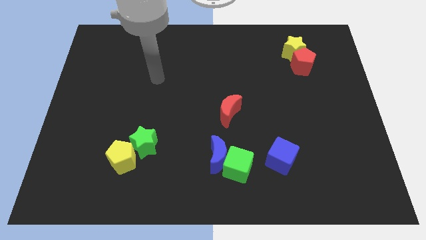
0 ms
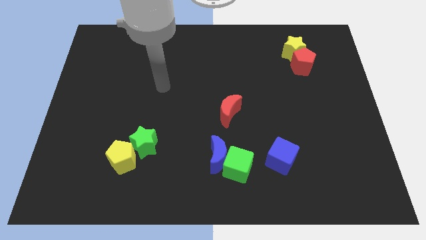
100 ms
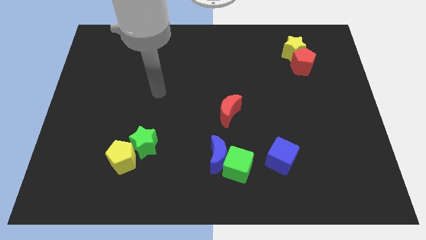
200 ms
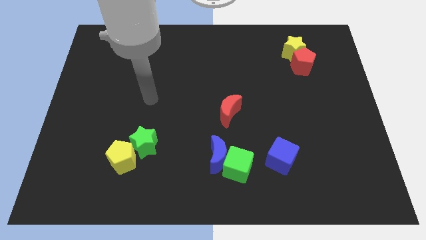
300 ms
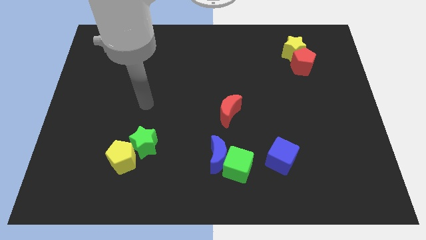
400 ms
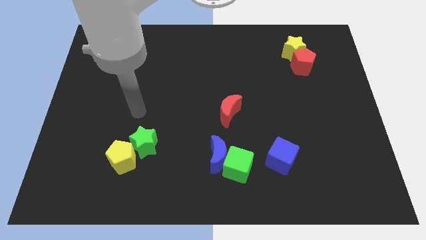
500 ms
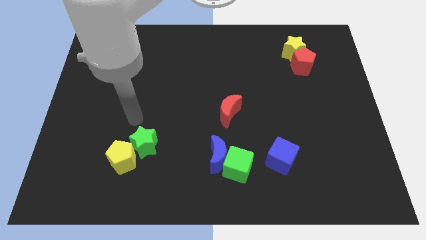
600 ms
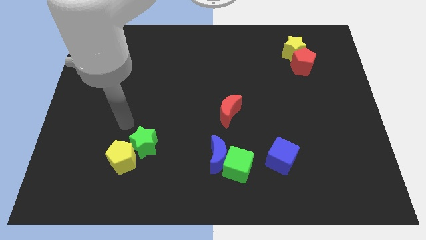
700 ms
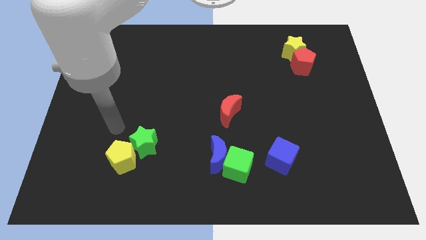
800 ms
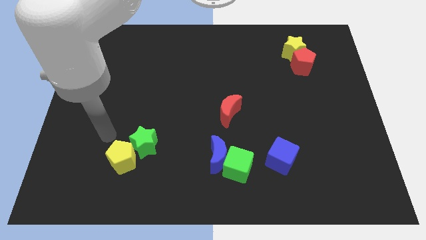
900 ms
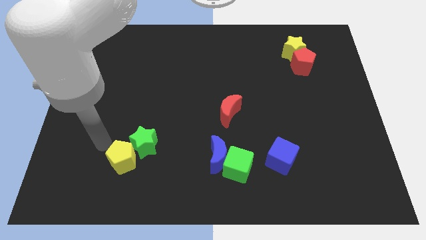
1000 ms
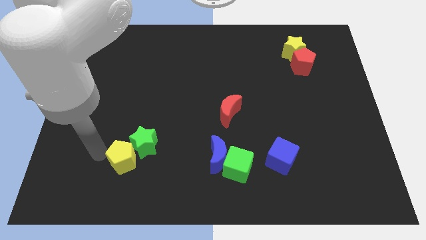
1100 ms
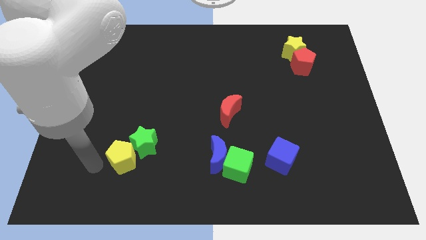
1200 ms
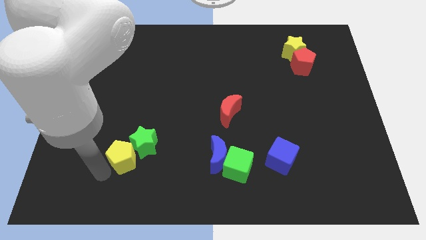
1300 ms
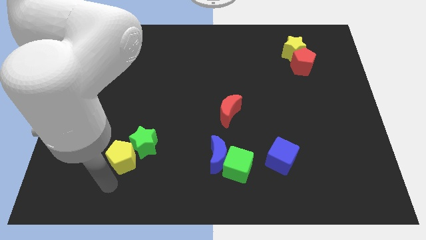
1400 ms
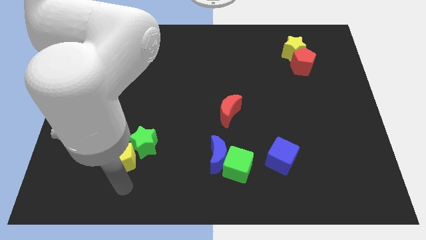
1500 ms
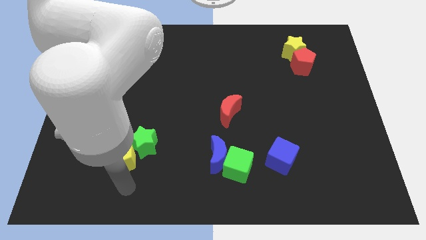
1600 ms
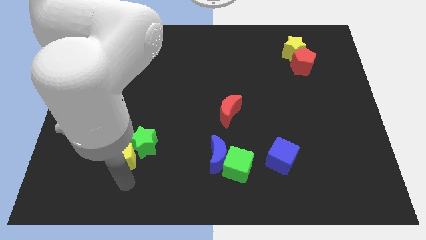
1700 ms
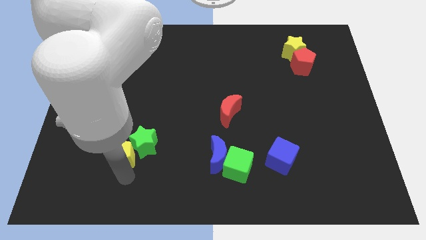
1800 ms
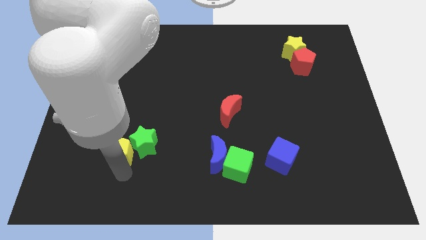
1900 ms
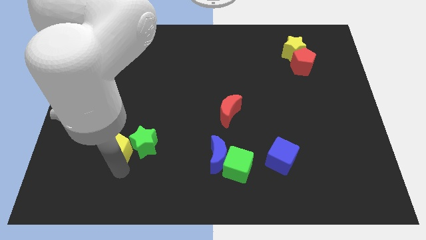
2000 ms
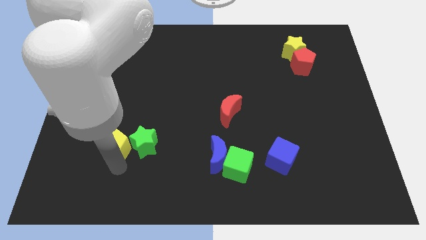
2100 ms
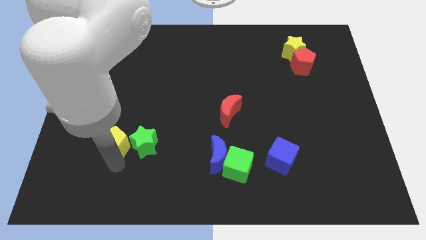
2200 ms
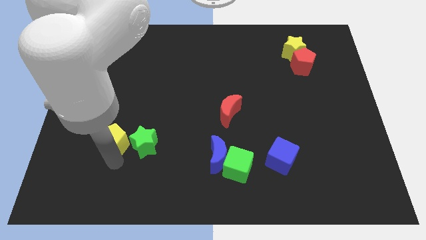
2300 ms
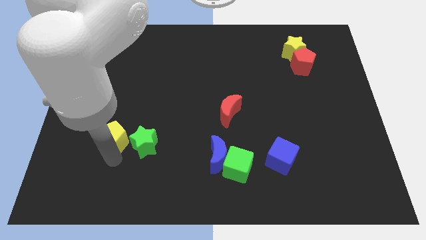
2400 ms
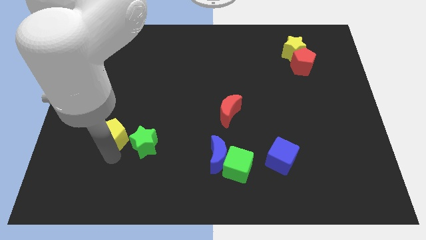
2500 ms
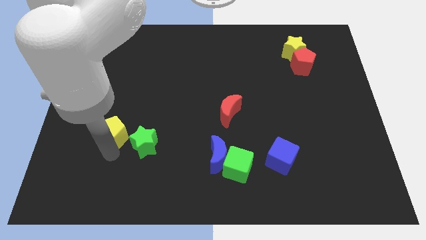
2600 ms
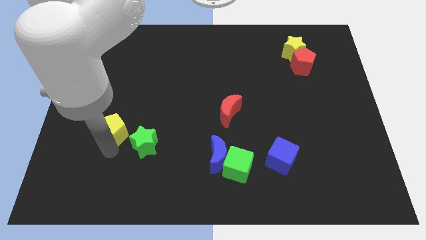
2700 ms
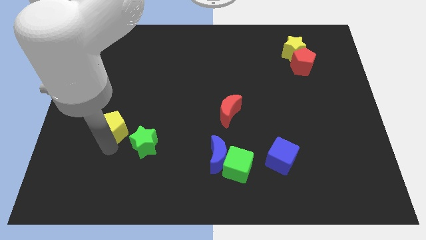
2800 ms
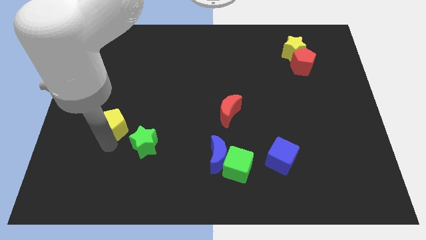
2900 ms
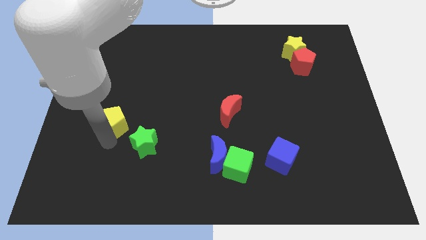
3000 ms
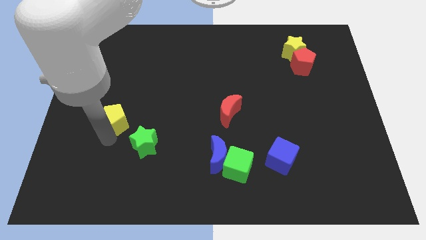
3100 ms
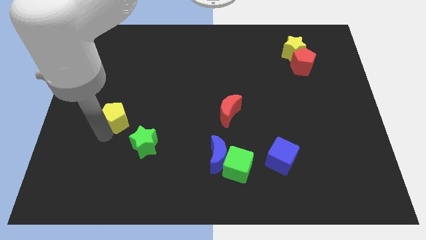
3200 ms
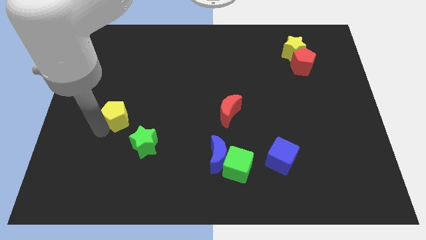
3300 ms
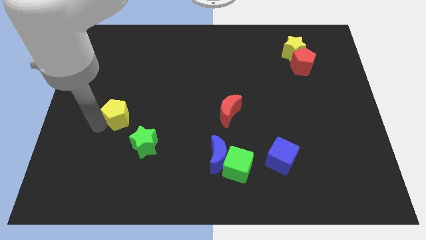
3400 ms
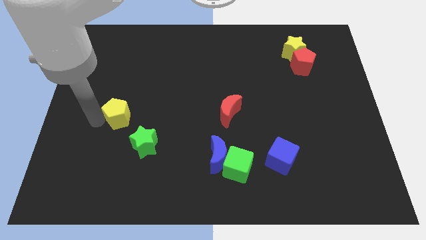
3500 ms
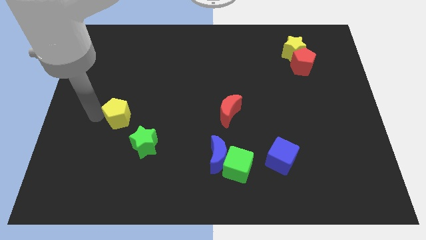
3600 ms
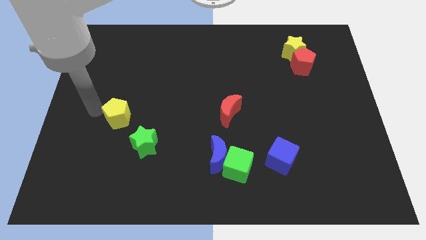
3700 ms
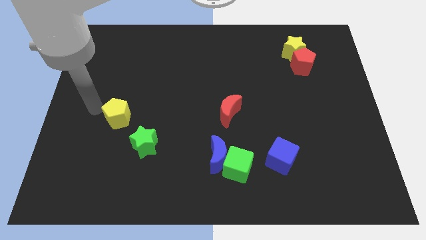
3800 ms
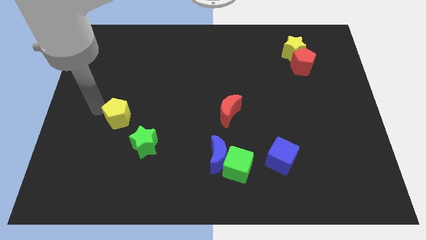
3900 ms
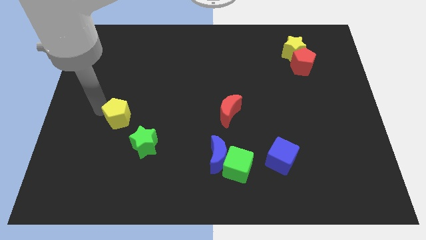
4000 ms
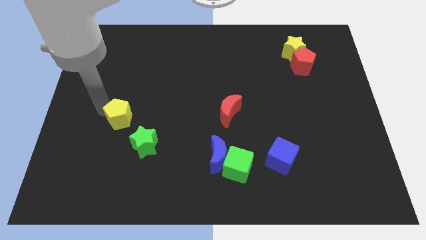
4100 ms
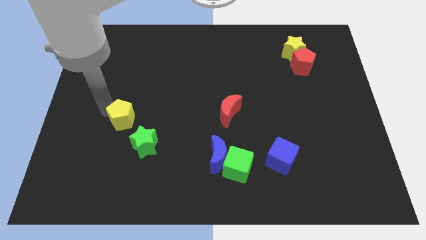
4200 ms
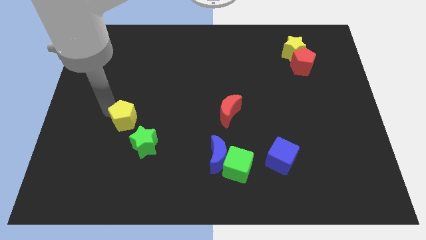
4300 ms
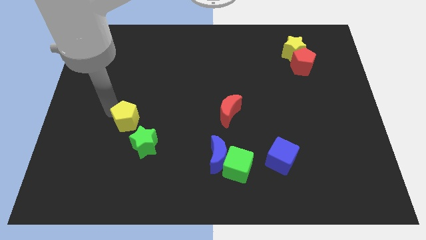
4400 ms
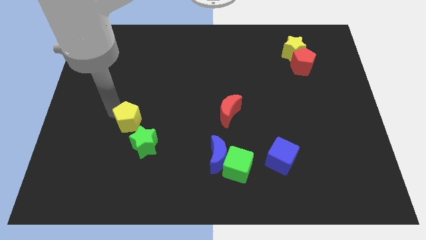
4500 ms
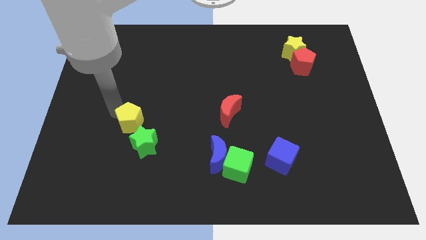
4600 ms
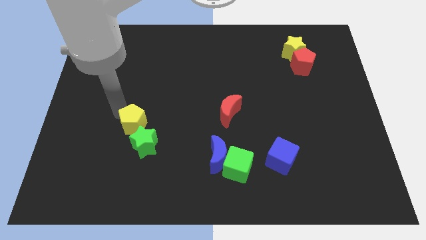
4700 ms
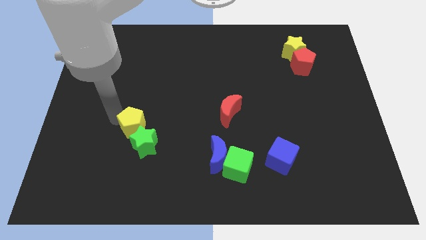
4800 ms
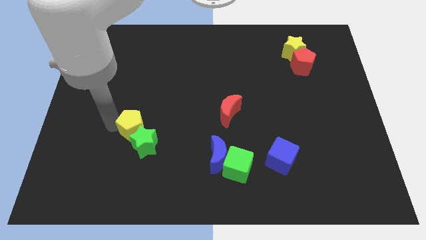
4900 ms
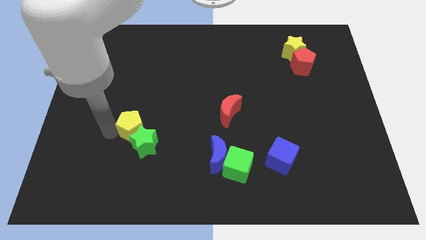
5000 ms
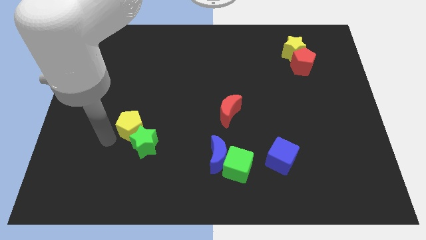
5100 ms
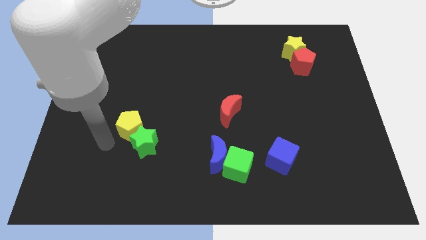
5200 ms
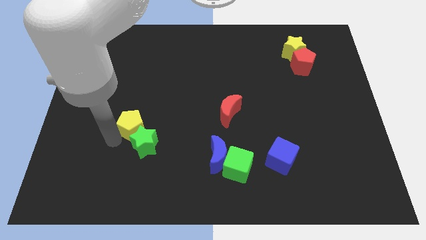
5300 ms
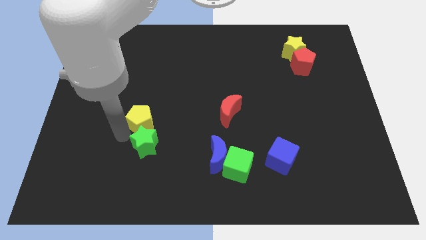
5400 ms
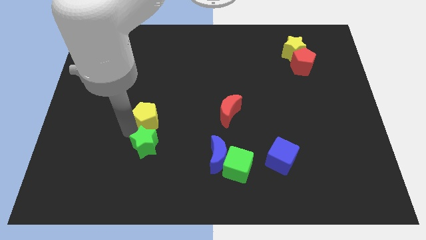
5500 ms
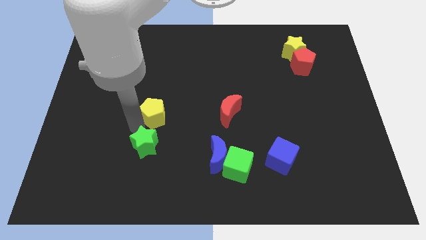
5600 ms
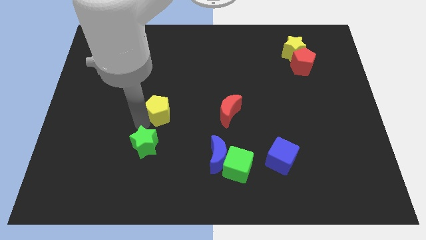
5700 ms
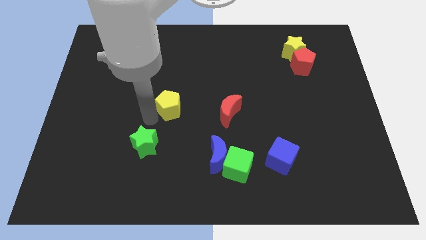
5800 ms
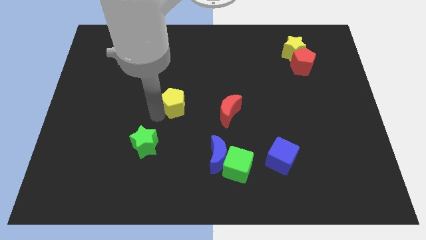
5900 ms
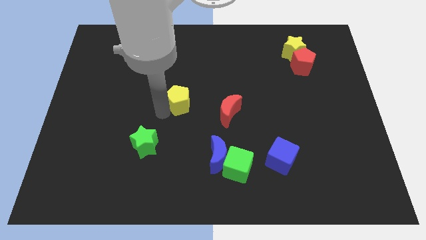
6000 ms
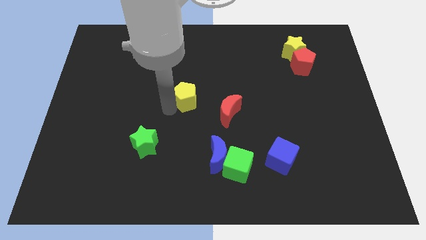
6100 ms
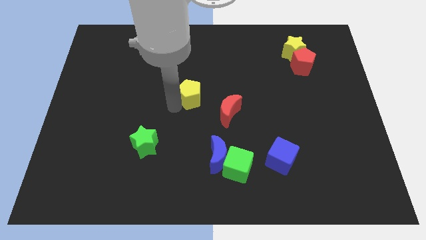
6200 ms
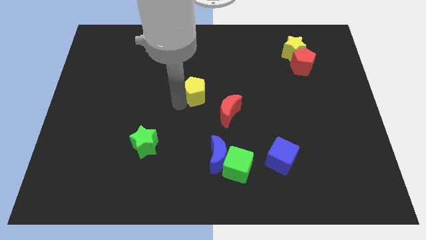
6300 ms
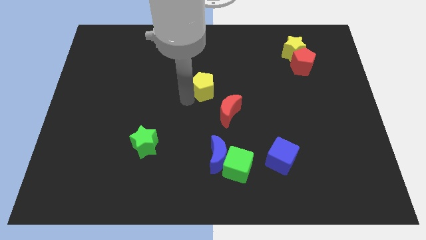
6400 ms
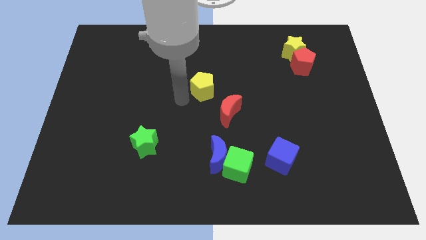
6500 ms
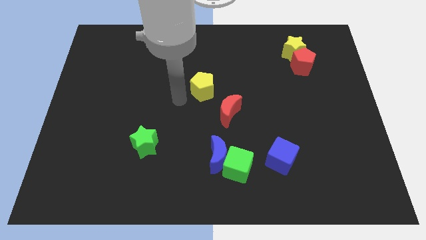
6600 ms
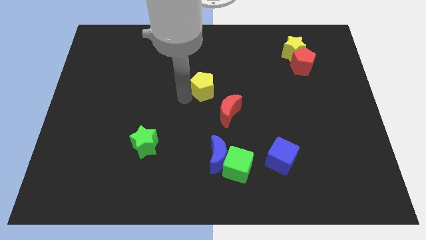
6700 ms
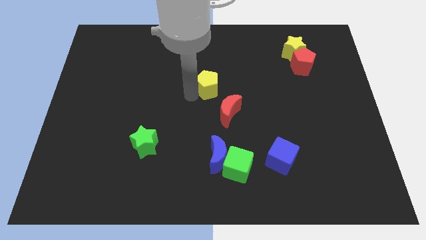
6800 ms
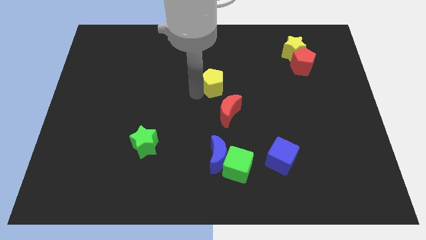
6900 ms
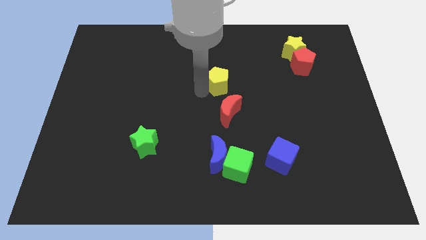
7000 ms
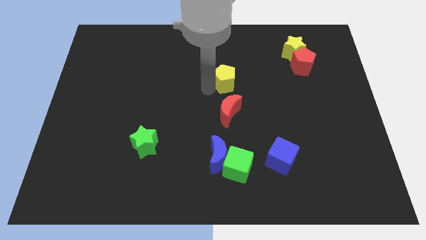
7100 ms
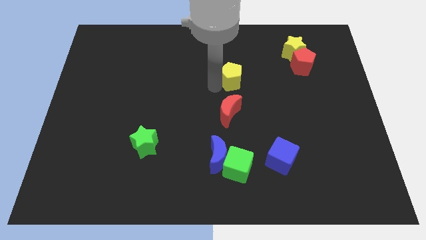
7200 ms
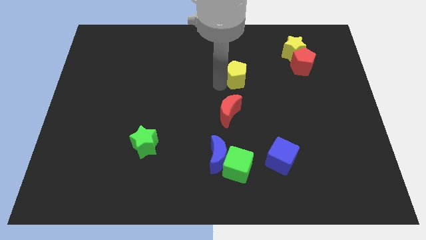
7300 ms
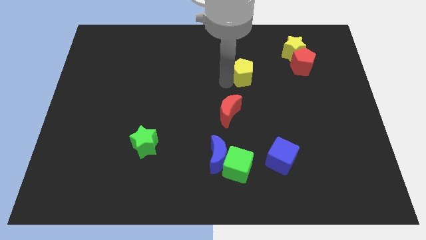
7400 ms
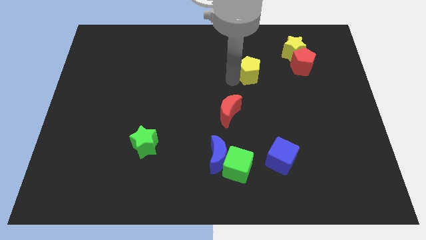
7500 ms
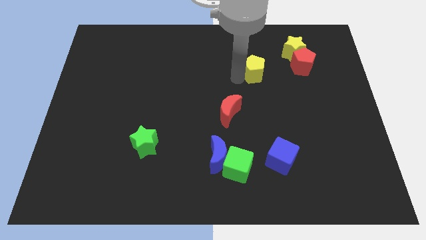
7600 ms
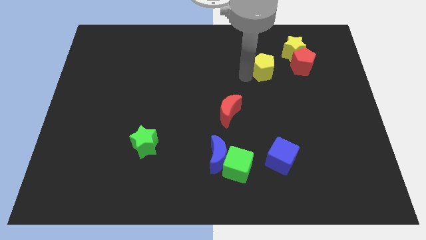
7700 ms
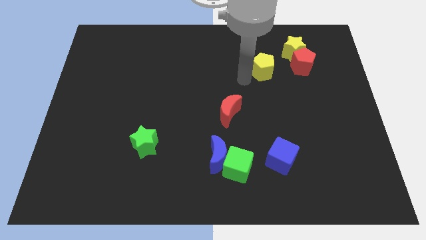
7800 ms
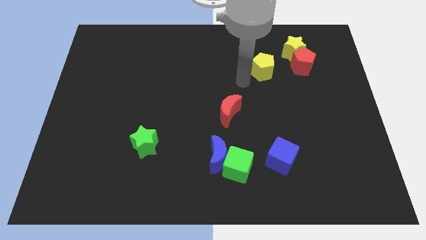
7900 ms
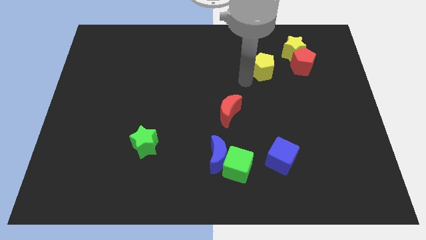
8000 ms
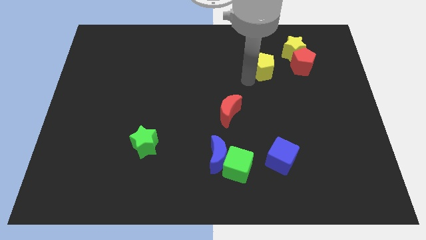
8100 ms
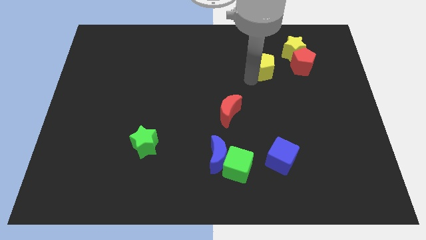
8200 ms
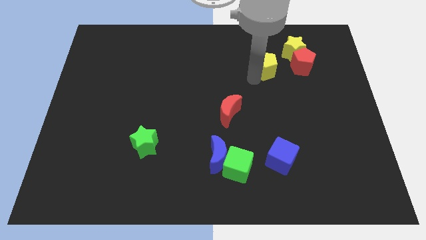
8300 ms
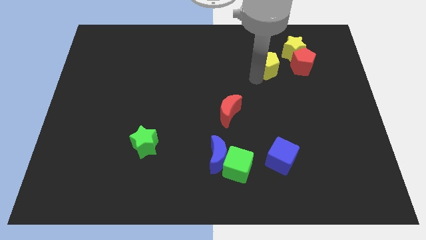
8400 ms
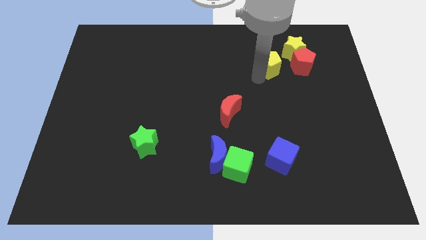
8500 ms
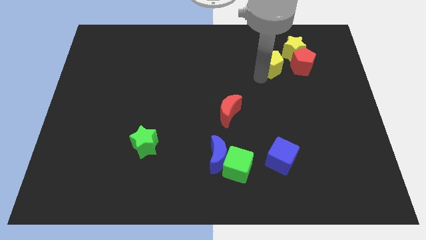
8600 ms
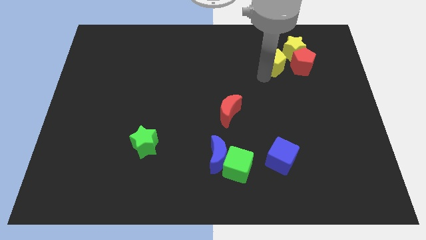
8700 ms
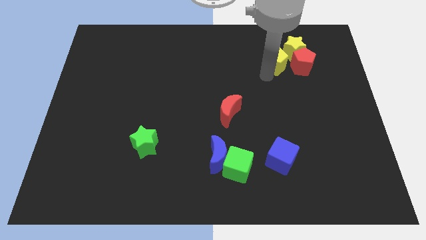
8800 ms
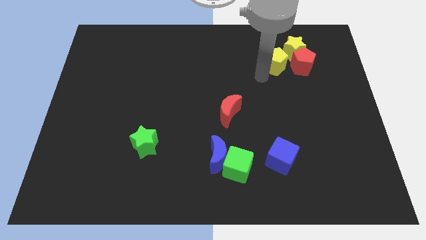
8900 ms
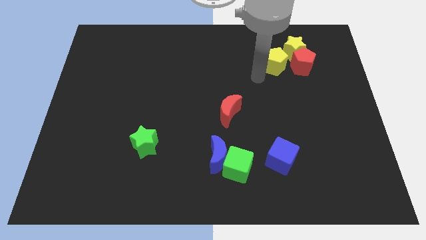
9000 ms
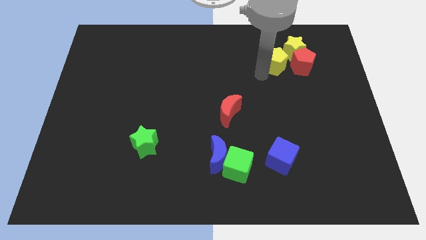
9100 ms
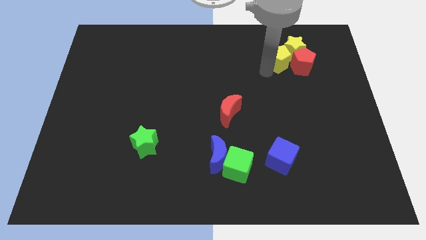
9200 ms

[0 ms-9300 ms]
move the yellow pentagon to the yellow star
